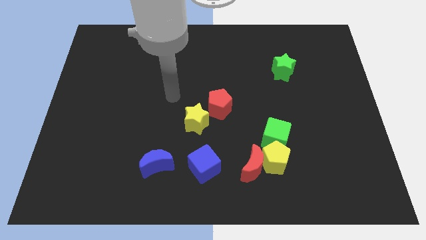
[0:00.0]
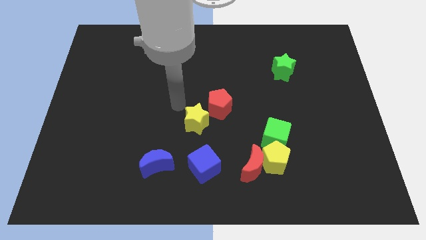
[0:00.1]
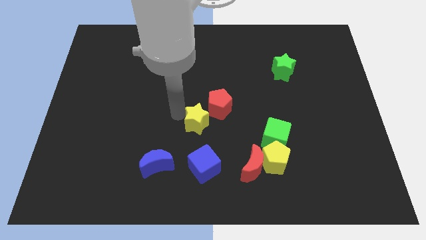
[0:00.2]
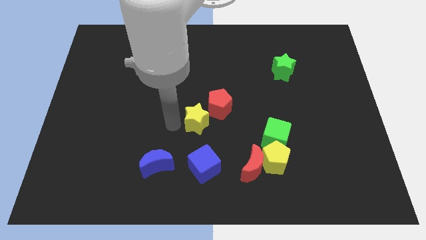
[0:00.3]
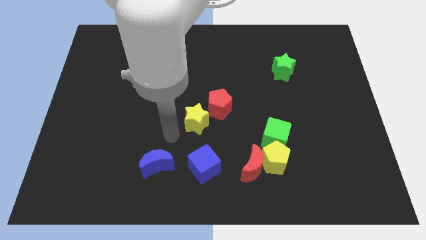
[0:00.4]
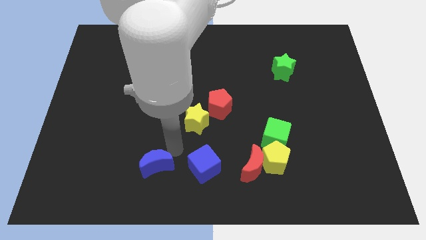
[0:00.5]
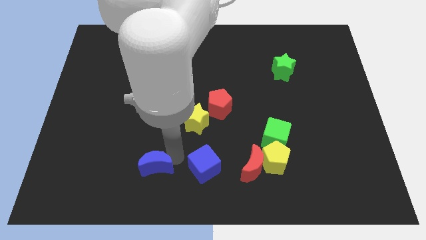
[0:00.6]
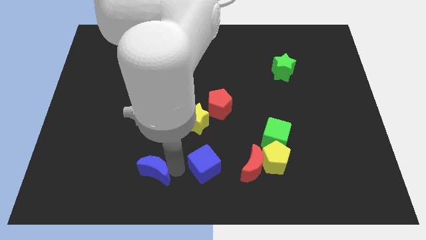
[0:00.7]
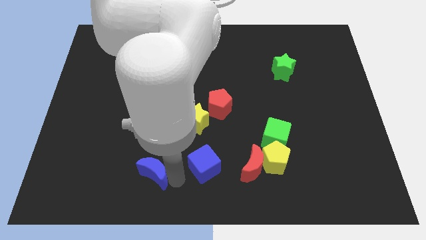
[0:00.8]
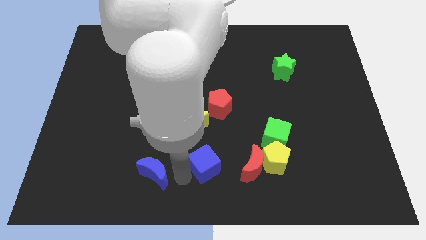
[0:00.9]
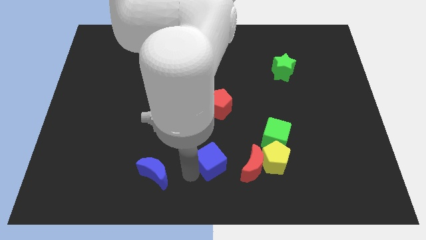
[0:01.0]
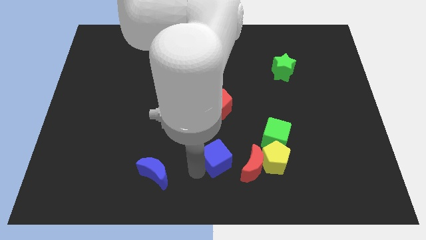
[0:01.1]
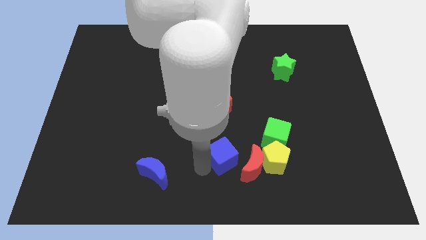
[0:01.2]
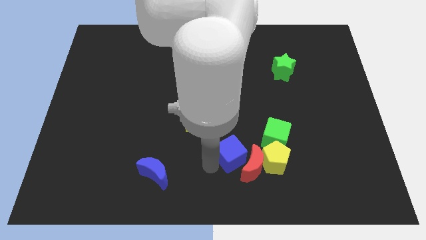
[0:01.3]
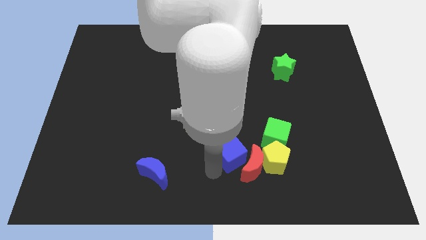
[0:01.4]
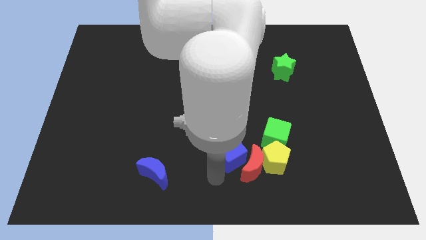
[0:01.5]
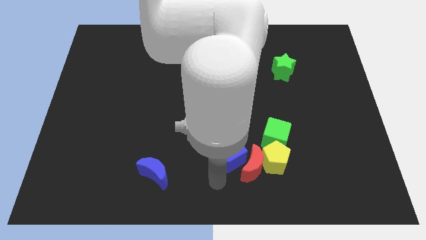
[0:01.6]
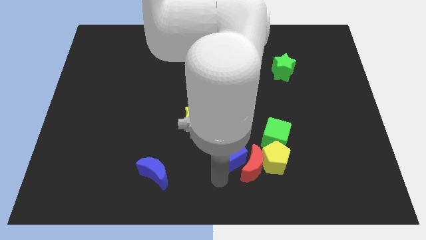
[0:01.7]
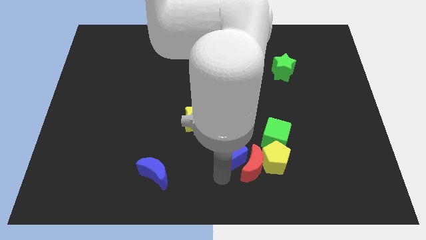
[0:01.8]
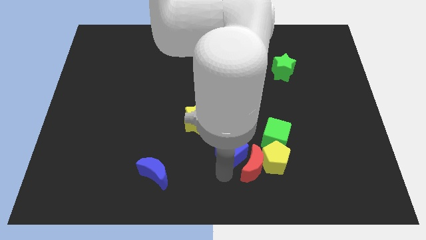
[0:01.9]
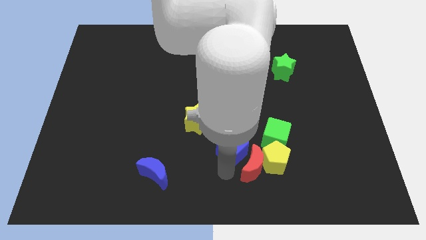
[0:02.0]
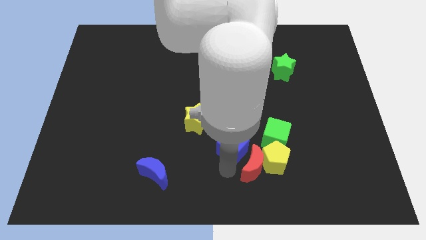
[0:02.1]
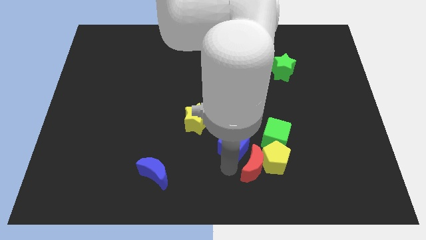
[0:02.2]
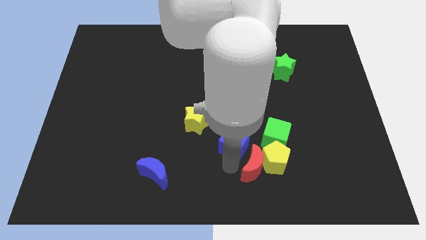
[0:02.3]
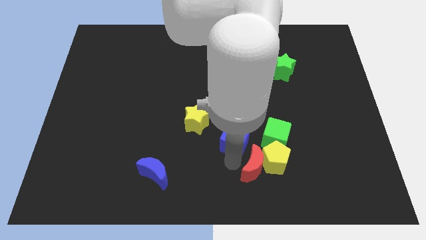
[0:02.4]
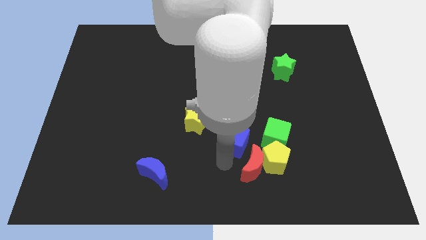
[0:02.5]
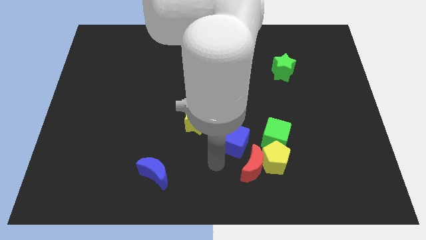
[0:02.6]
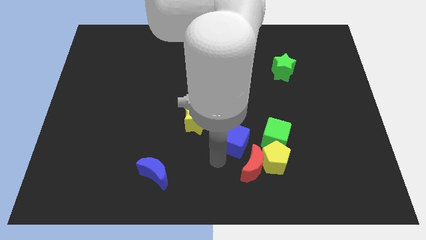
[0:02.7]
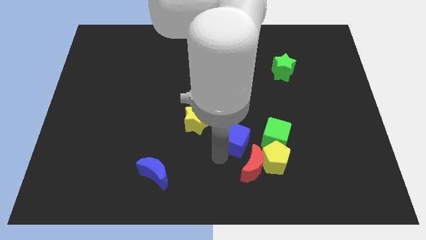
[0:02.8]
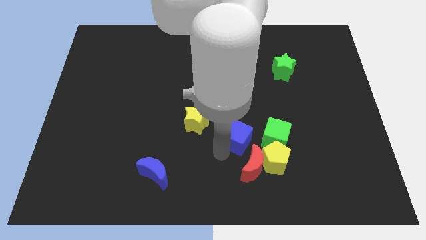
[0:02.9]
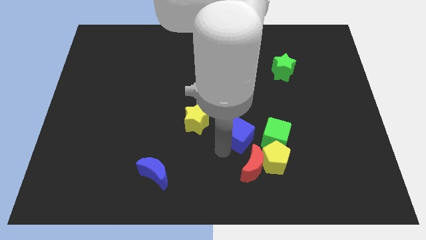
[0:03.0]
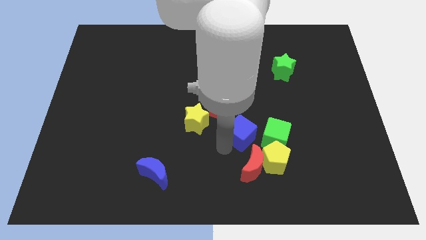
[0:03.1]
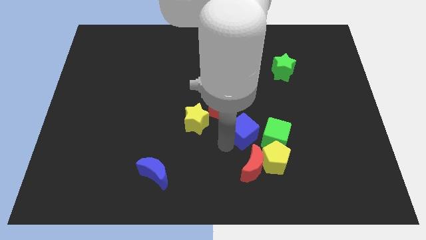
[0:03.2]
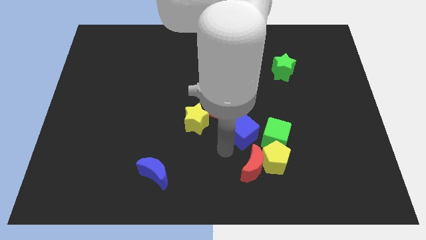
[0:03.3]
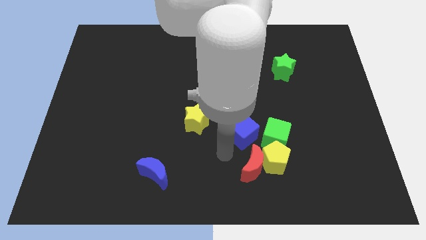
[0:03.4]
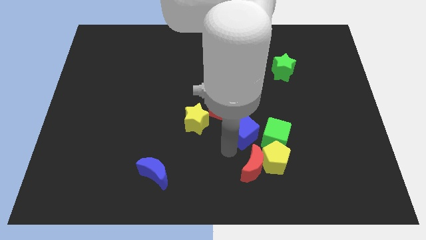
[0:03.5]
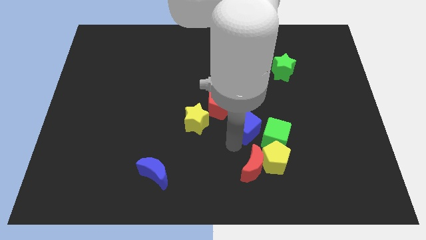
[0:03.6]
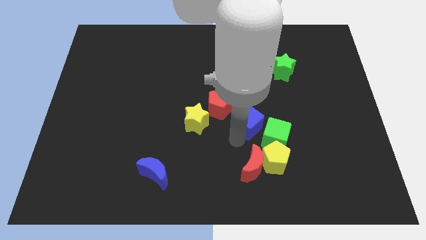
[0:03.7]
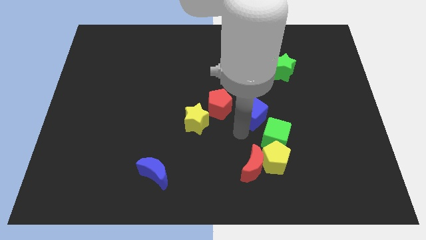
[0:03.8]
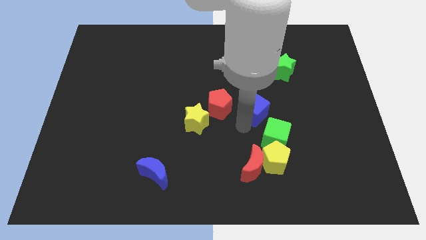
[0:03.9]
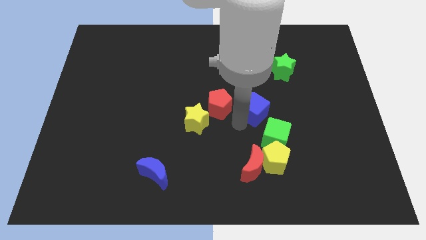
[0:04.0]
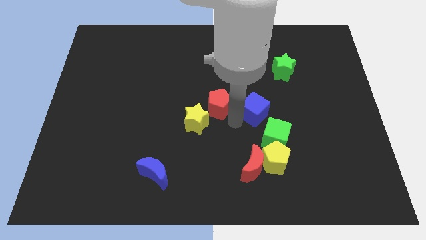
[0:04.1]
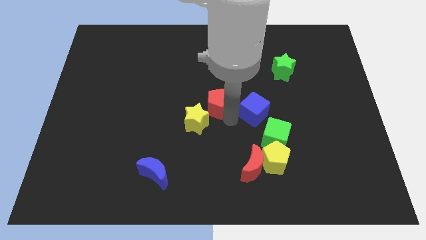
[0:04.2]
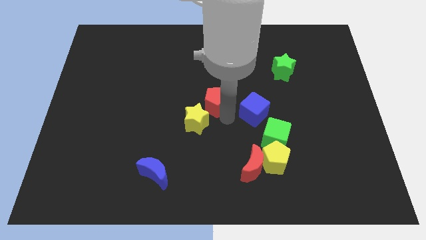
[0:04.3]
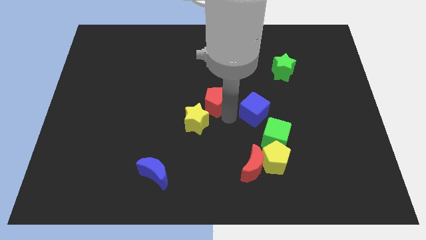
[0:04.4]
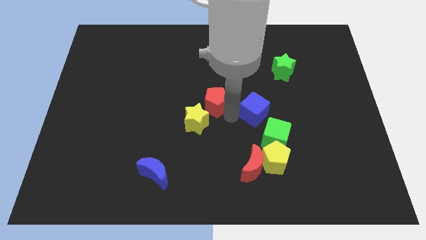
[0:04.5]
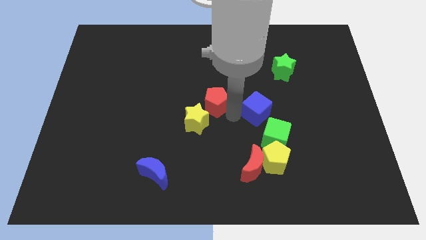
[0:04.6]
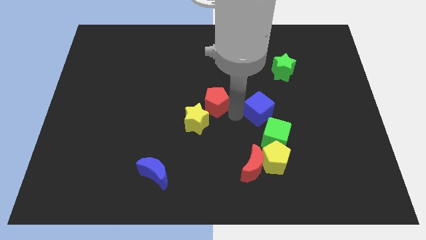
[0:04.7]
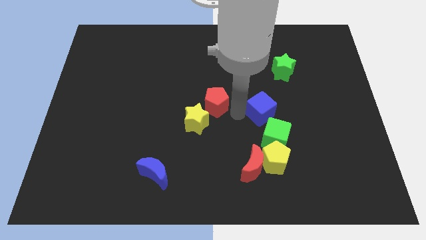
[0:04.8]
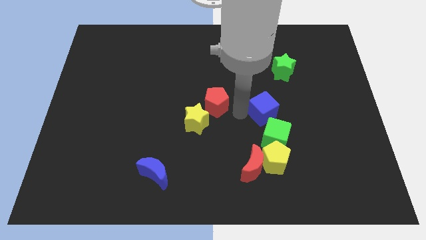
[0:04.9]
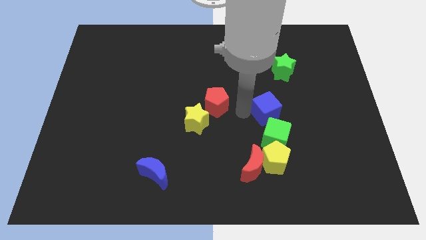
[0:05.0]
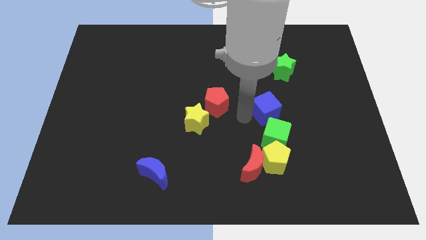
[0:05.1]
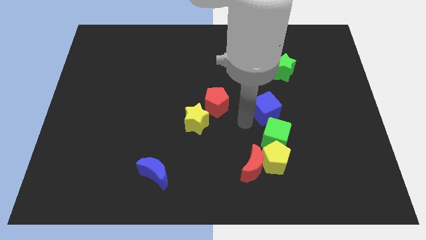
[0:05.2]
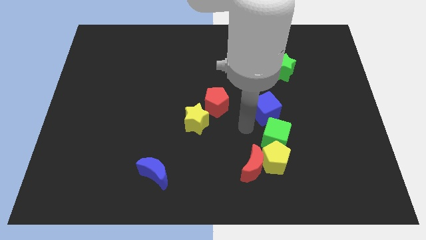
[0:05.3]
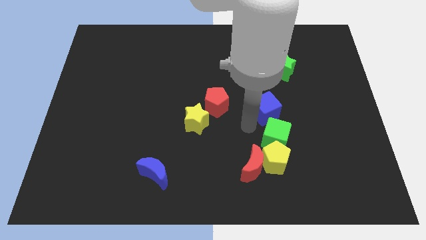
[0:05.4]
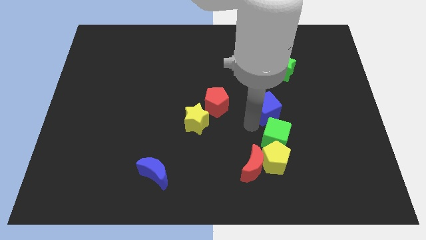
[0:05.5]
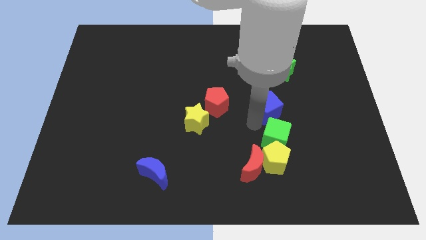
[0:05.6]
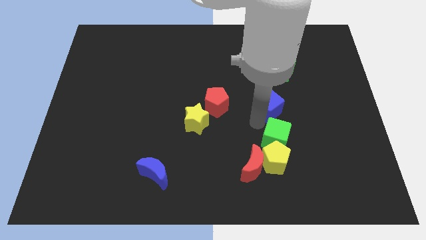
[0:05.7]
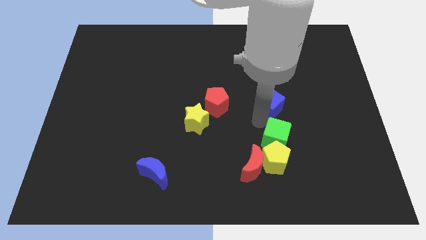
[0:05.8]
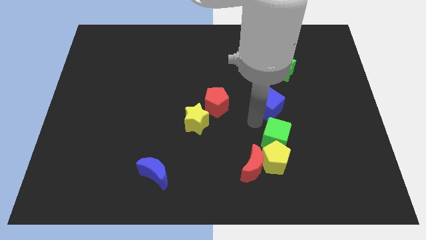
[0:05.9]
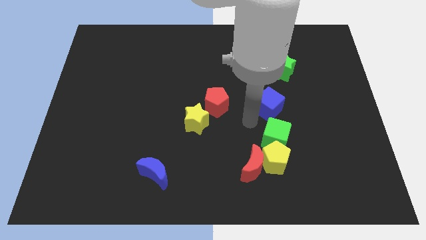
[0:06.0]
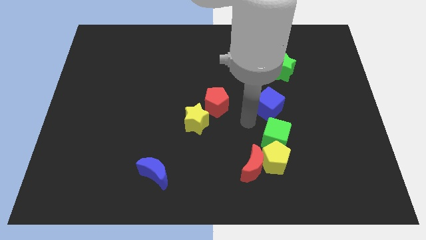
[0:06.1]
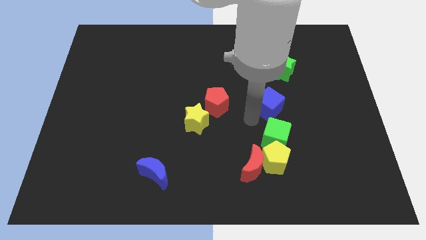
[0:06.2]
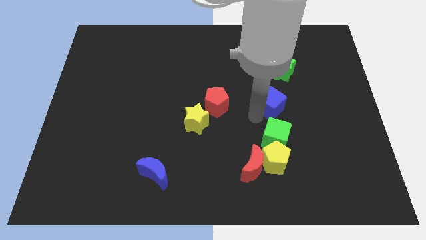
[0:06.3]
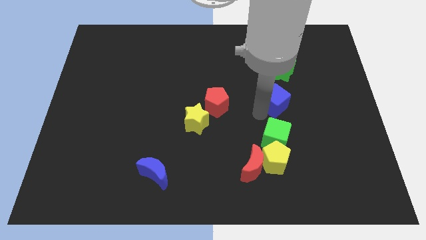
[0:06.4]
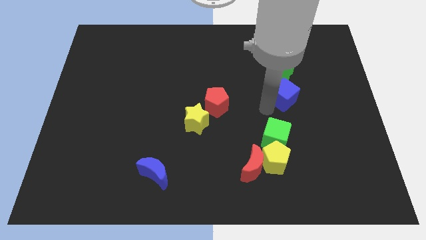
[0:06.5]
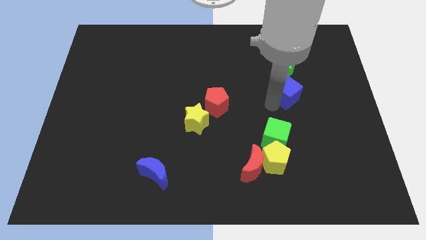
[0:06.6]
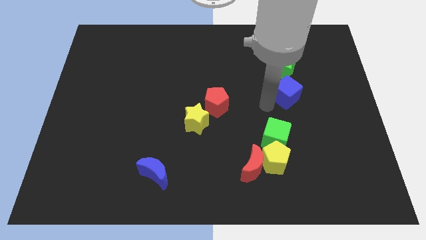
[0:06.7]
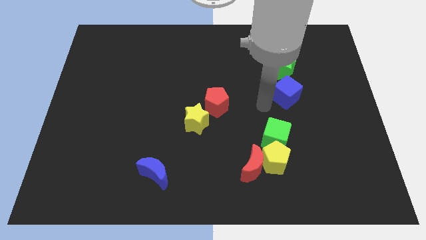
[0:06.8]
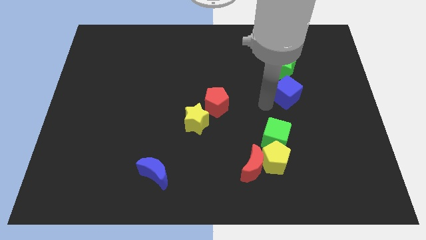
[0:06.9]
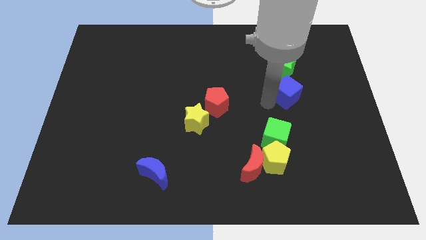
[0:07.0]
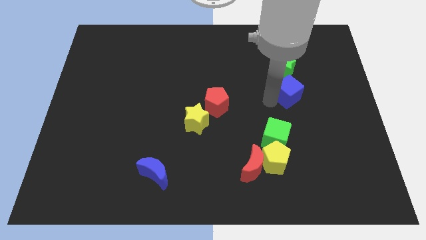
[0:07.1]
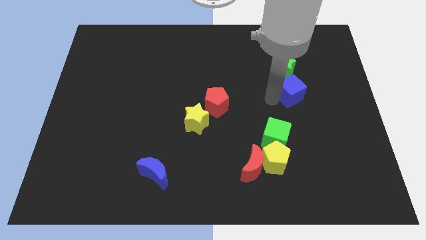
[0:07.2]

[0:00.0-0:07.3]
put the blue cube diagonally down and to the right of the green star
